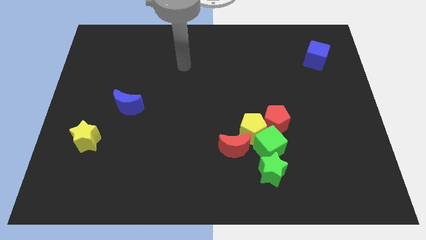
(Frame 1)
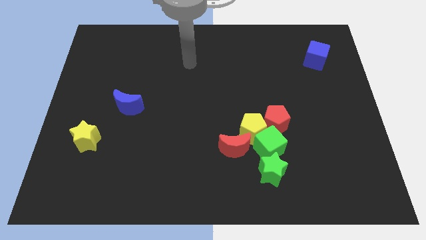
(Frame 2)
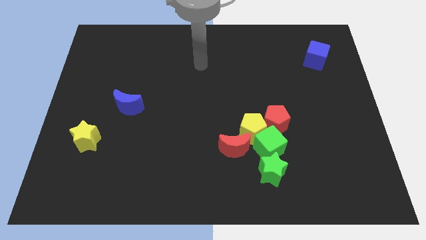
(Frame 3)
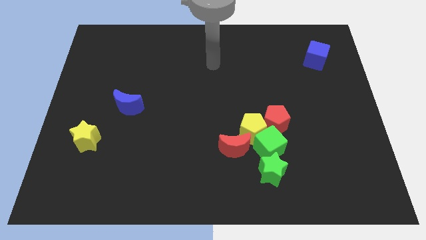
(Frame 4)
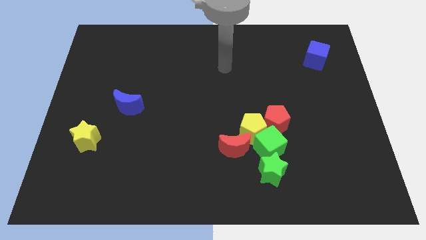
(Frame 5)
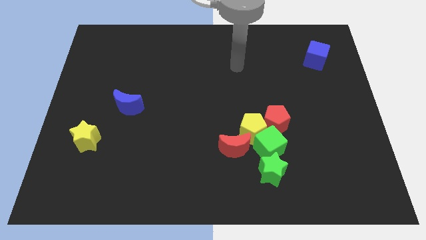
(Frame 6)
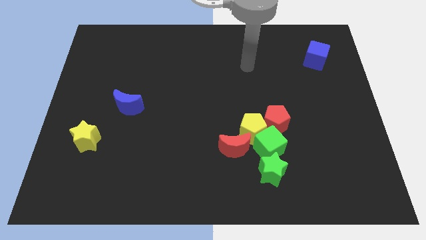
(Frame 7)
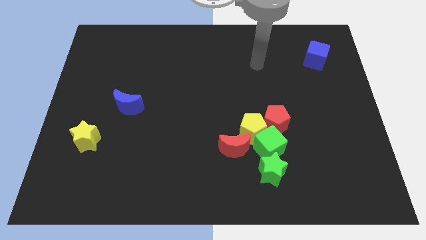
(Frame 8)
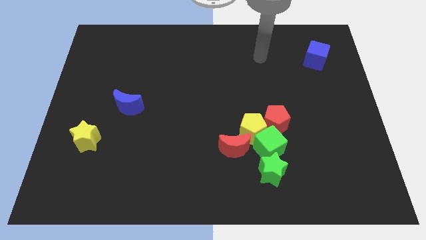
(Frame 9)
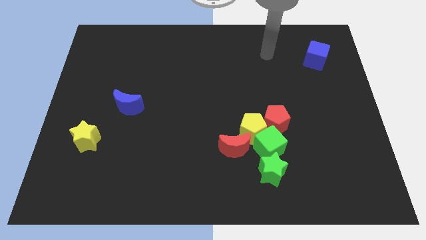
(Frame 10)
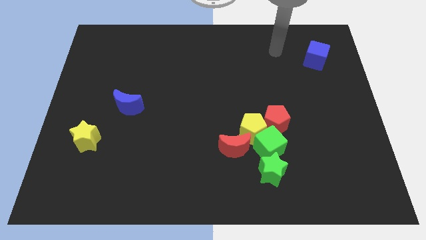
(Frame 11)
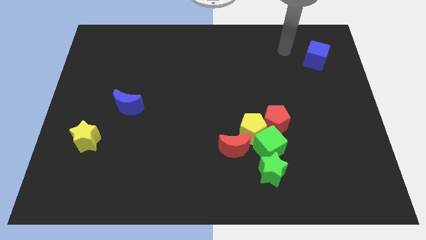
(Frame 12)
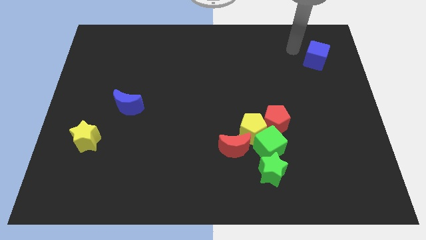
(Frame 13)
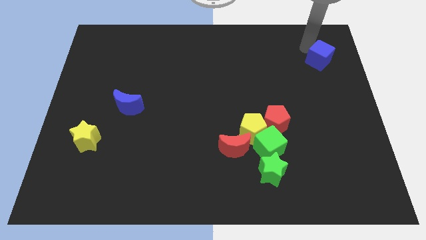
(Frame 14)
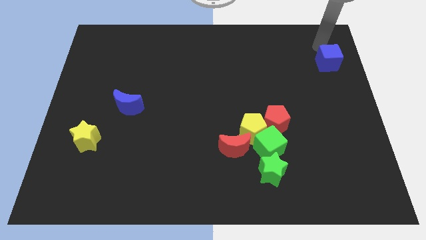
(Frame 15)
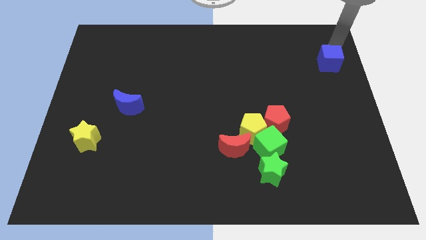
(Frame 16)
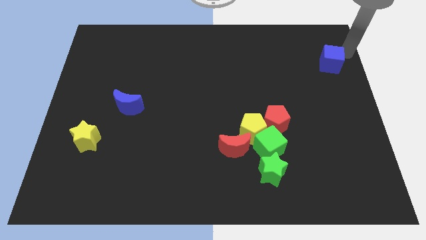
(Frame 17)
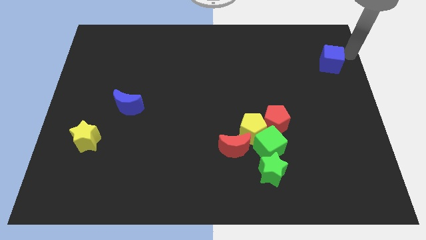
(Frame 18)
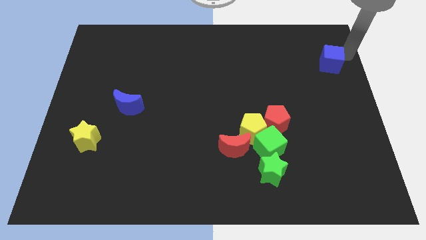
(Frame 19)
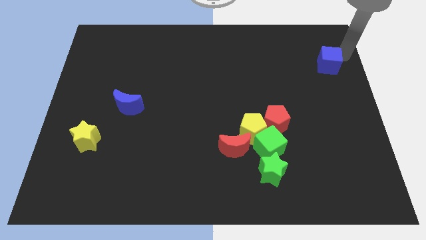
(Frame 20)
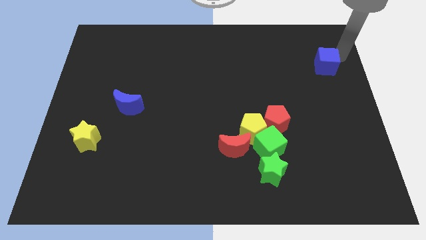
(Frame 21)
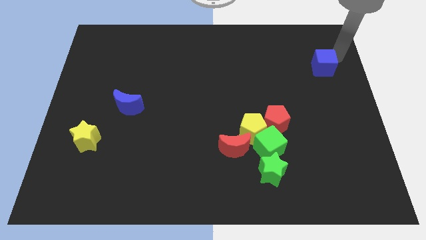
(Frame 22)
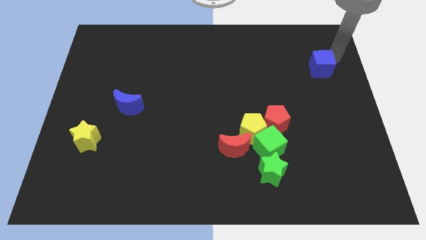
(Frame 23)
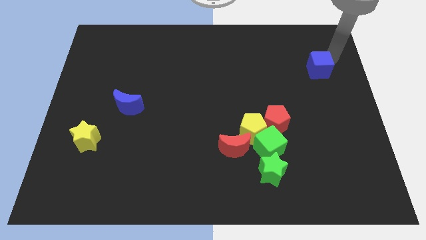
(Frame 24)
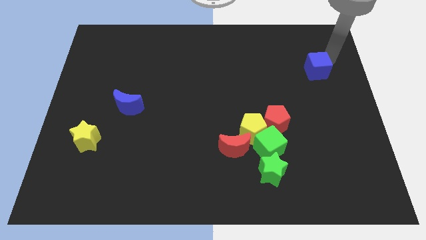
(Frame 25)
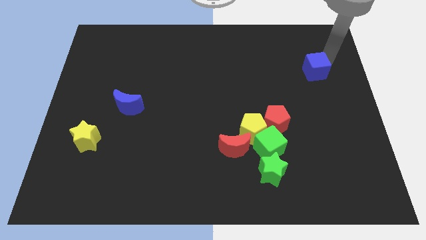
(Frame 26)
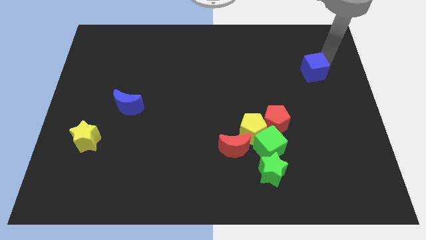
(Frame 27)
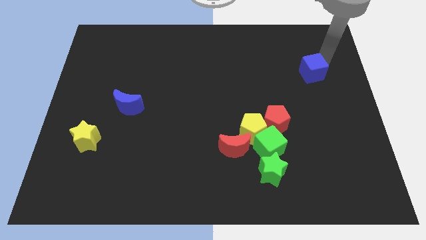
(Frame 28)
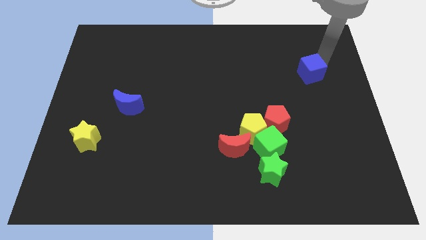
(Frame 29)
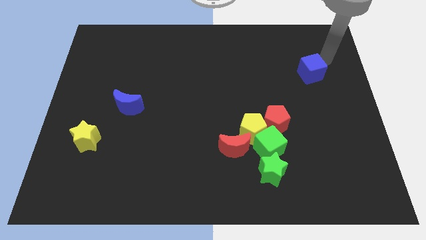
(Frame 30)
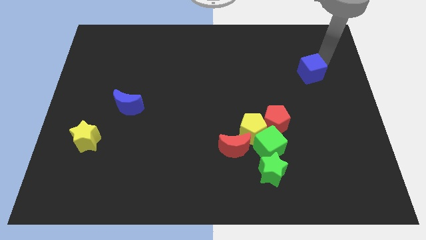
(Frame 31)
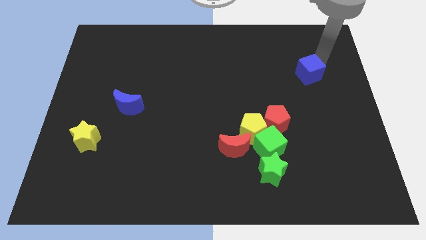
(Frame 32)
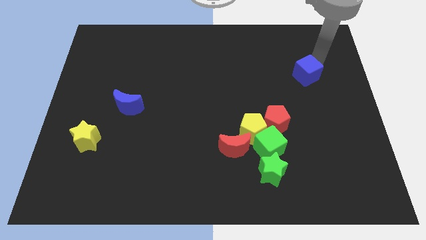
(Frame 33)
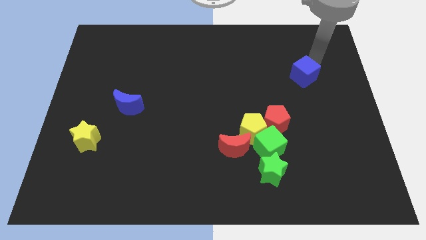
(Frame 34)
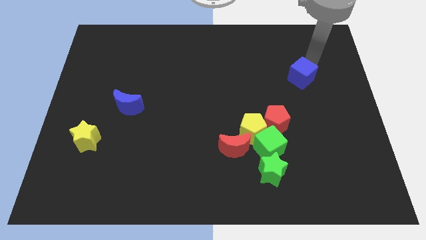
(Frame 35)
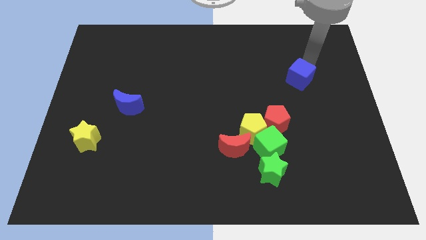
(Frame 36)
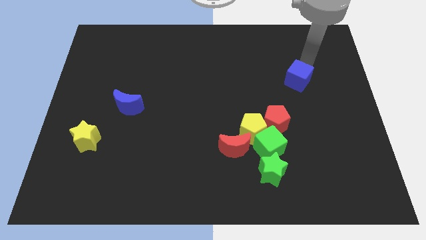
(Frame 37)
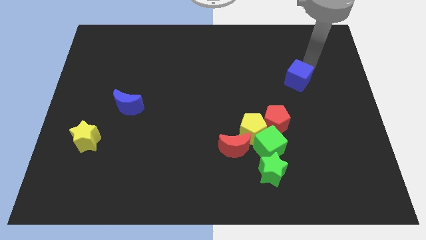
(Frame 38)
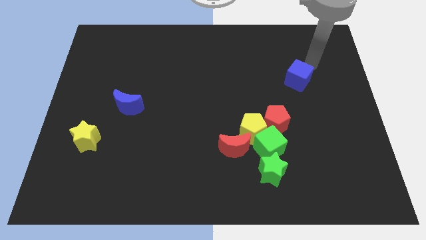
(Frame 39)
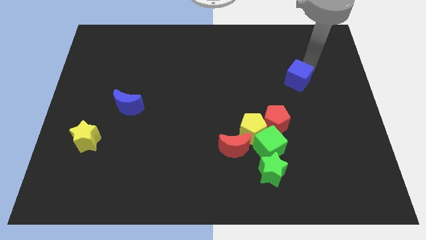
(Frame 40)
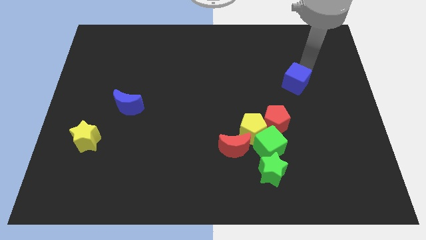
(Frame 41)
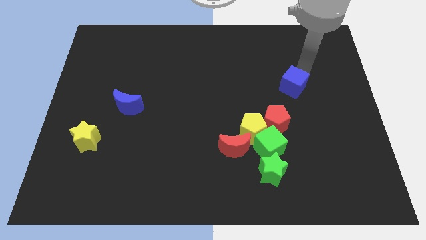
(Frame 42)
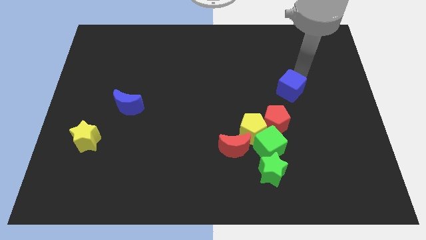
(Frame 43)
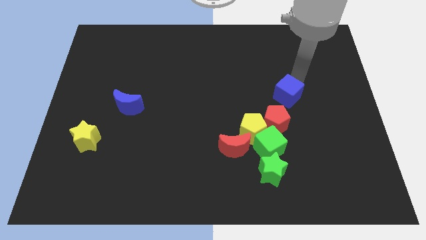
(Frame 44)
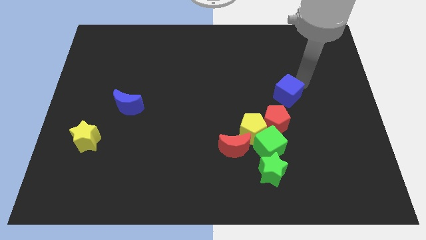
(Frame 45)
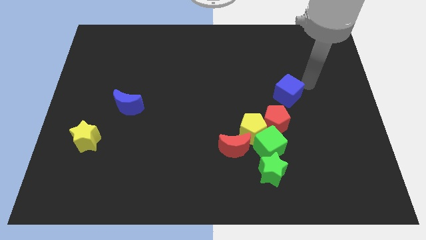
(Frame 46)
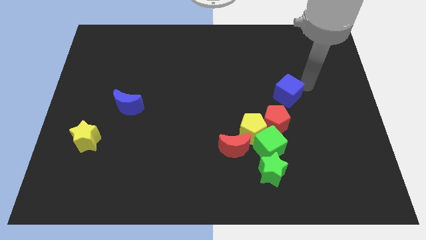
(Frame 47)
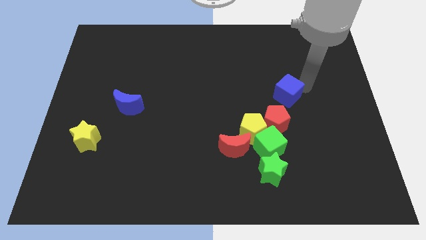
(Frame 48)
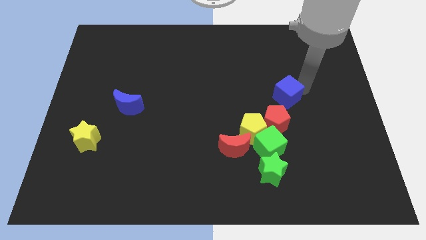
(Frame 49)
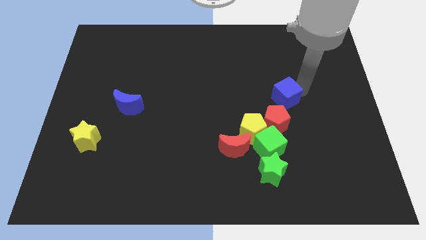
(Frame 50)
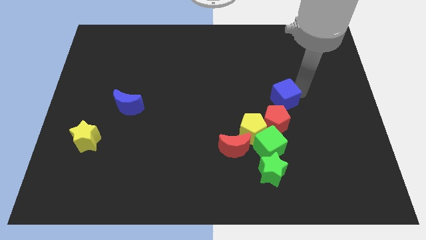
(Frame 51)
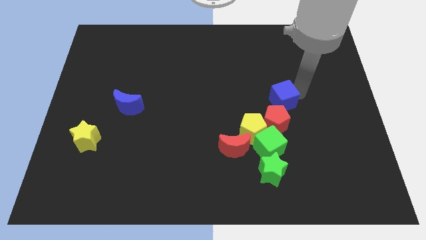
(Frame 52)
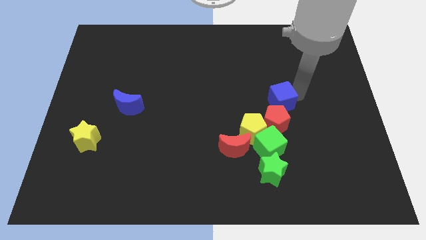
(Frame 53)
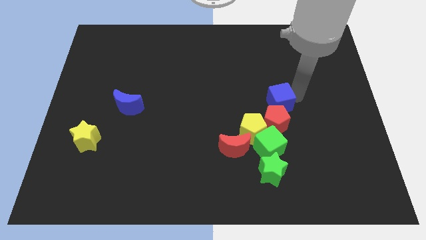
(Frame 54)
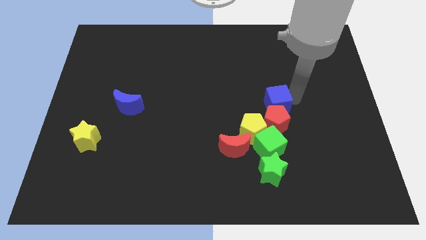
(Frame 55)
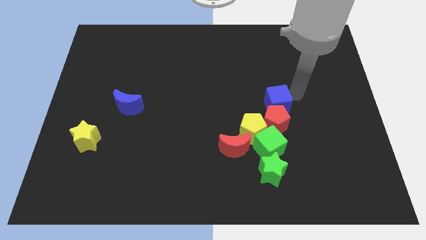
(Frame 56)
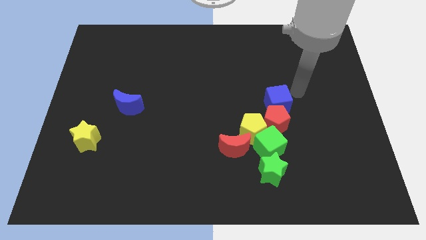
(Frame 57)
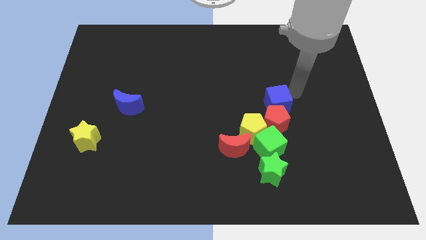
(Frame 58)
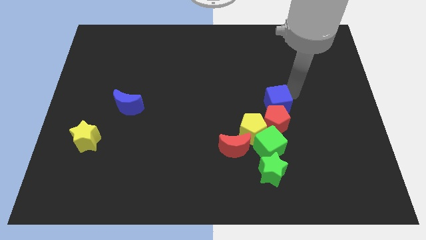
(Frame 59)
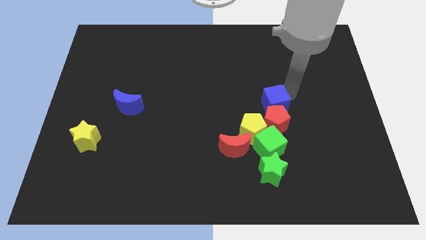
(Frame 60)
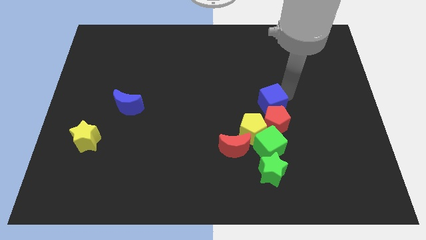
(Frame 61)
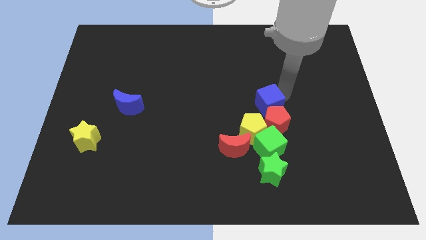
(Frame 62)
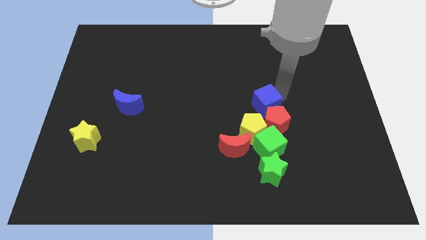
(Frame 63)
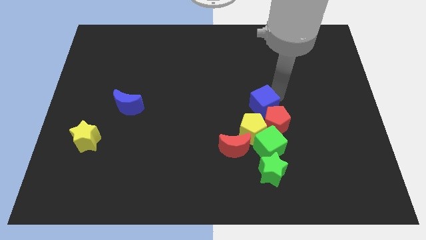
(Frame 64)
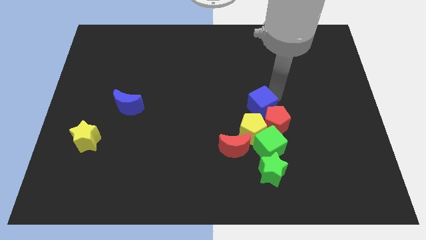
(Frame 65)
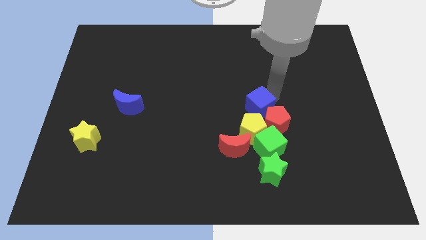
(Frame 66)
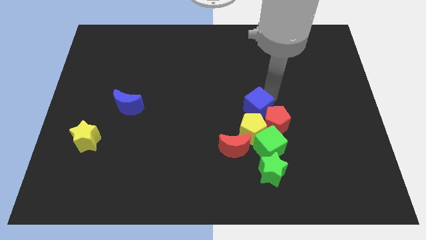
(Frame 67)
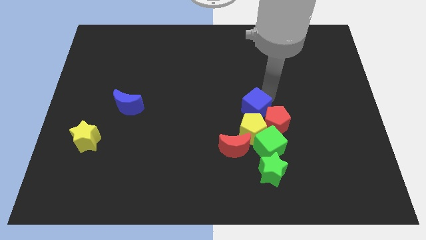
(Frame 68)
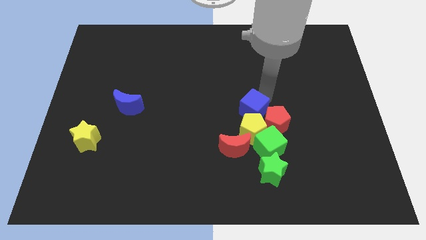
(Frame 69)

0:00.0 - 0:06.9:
put the blue cube close to the yellow pentagon
